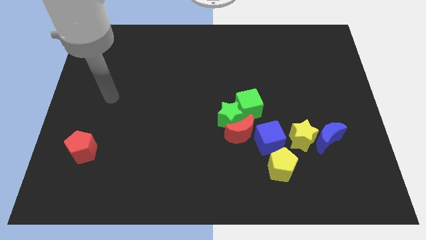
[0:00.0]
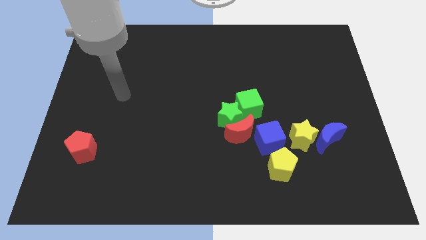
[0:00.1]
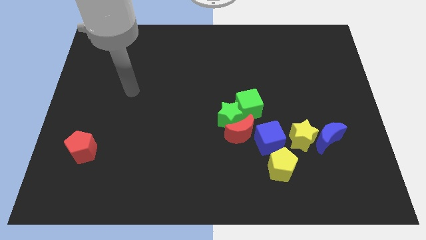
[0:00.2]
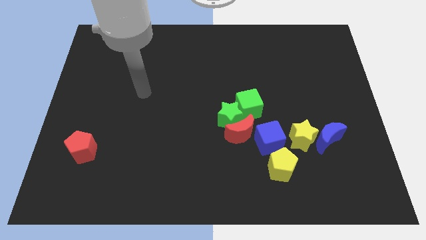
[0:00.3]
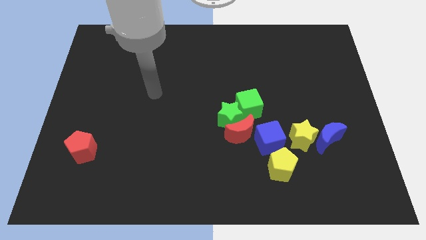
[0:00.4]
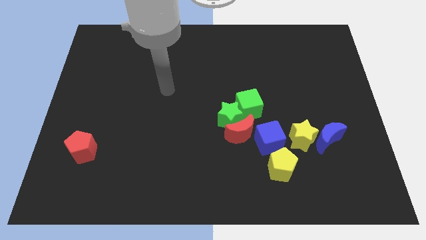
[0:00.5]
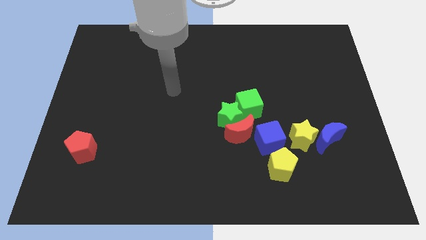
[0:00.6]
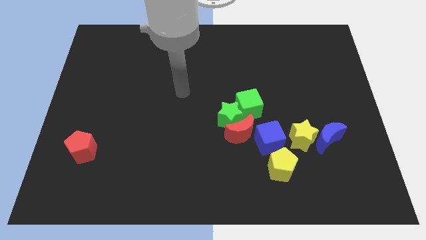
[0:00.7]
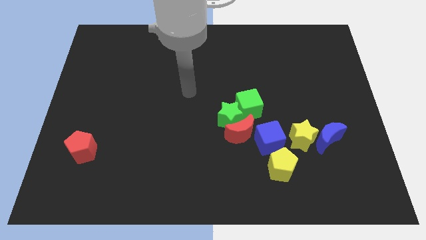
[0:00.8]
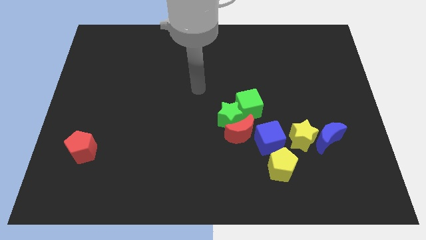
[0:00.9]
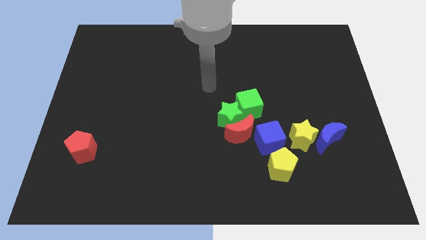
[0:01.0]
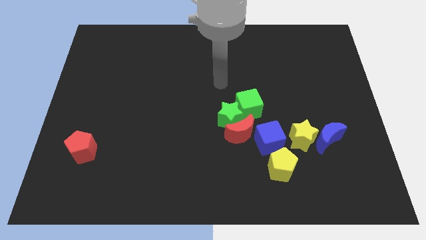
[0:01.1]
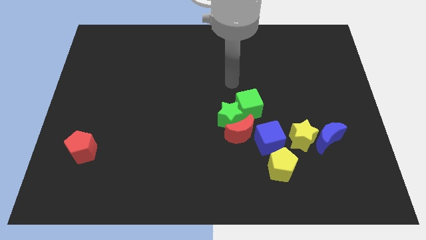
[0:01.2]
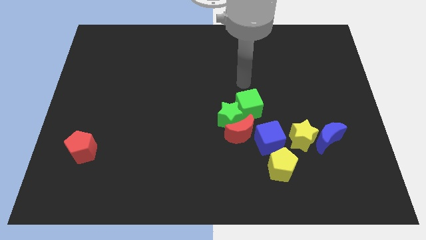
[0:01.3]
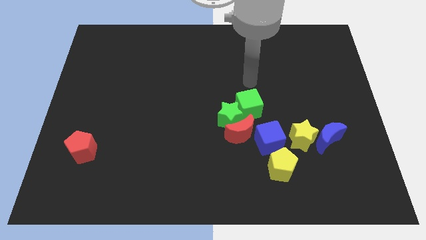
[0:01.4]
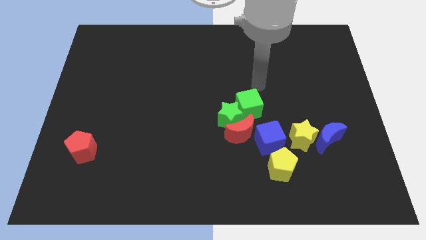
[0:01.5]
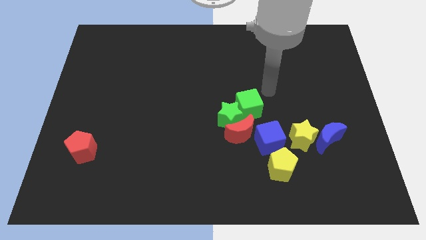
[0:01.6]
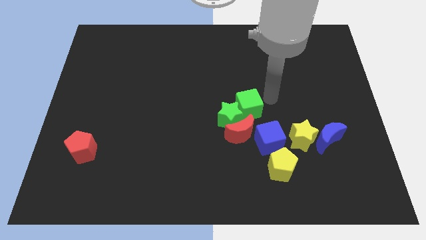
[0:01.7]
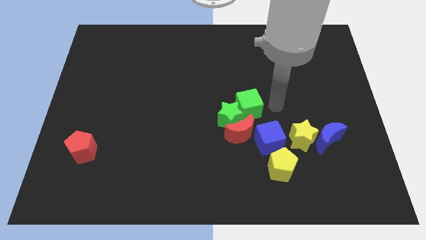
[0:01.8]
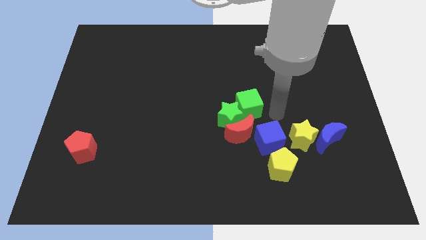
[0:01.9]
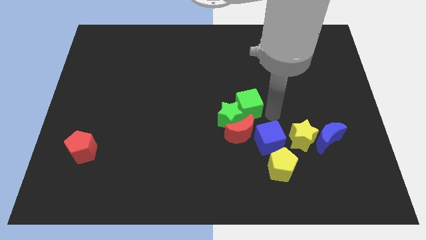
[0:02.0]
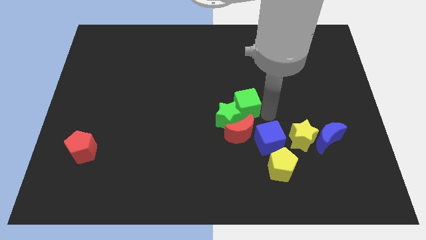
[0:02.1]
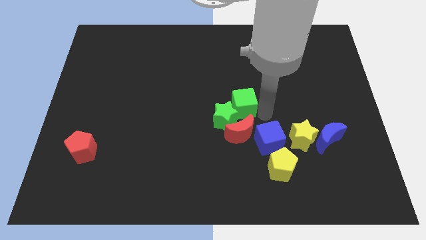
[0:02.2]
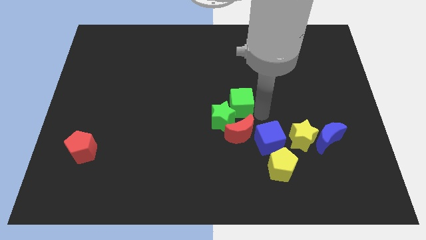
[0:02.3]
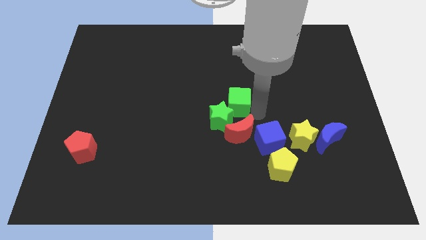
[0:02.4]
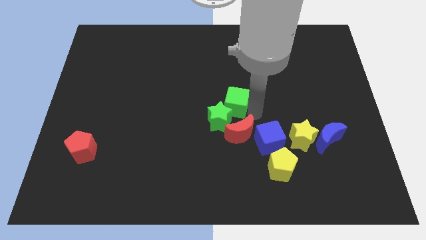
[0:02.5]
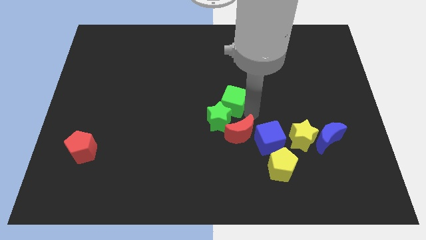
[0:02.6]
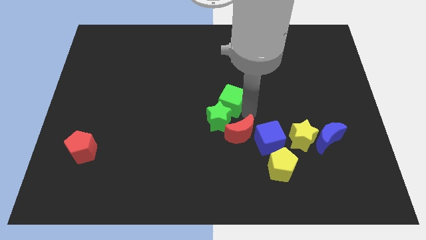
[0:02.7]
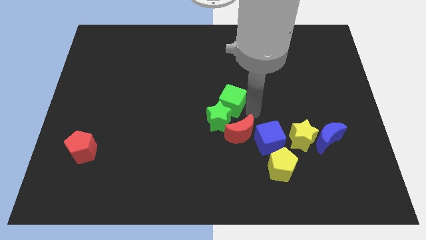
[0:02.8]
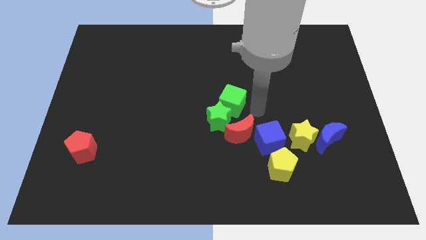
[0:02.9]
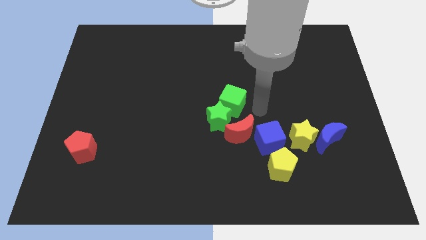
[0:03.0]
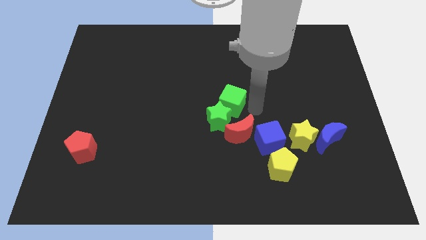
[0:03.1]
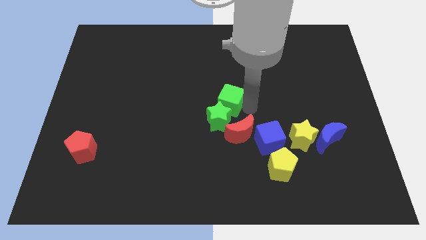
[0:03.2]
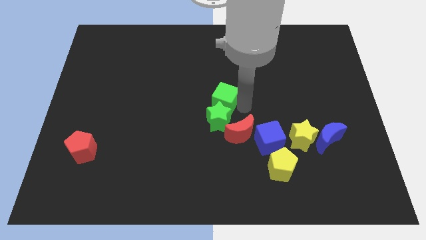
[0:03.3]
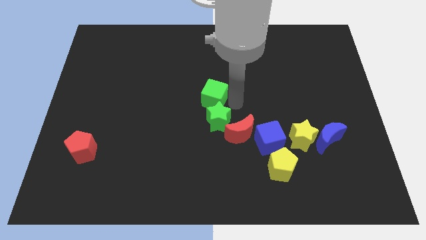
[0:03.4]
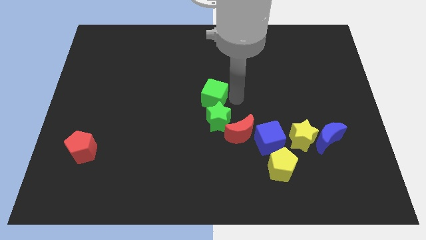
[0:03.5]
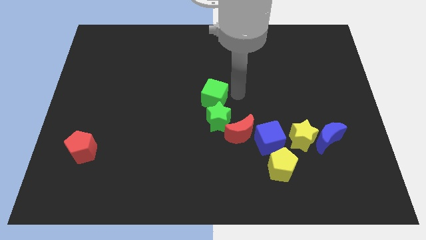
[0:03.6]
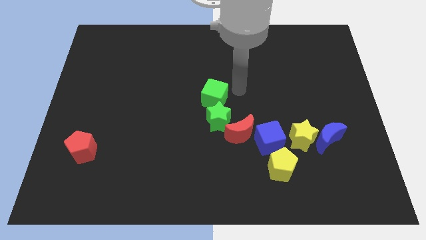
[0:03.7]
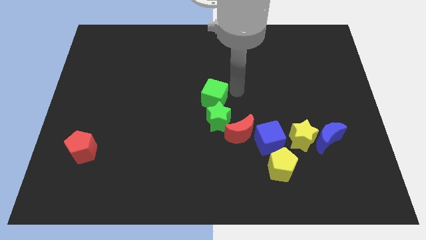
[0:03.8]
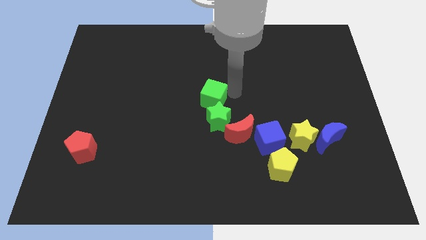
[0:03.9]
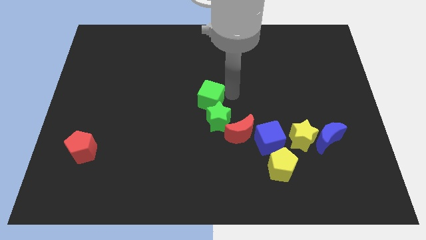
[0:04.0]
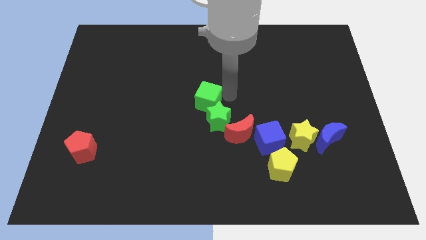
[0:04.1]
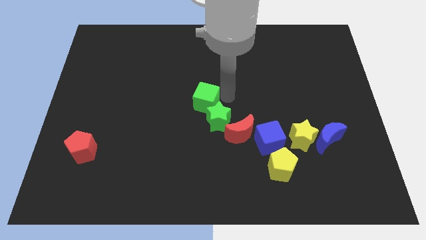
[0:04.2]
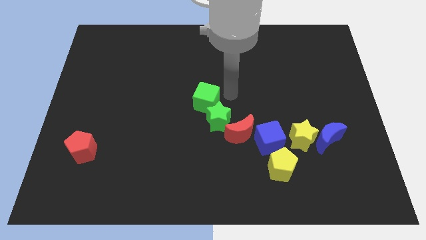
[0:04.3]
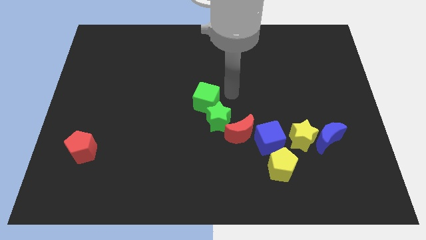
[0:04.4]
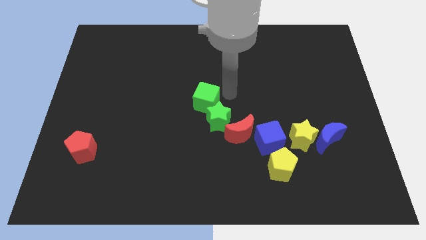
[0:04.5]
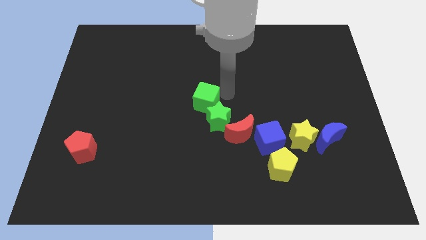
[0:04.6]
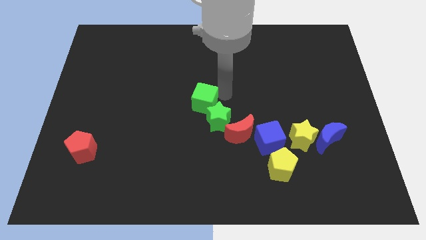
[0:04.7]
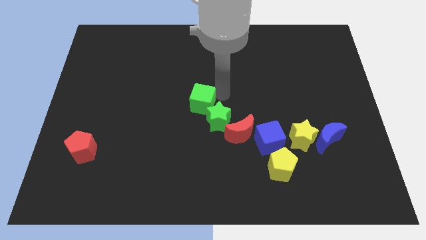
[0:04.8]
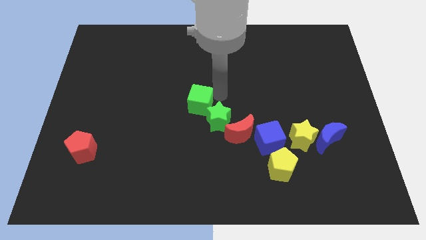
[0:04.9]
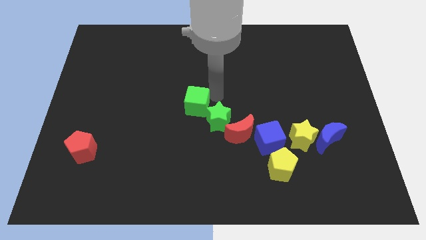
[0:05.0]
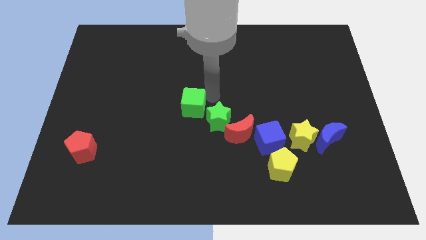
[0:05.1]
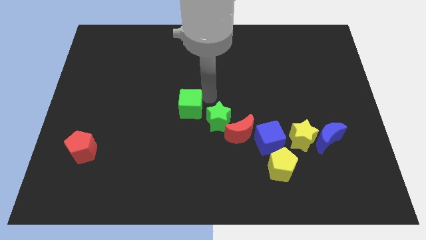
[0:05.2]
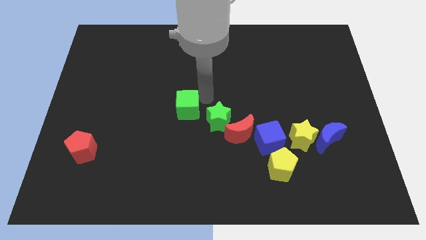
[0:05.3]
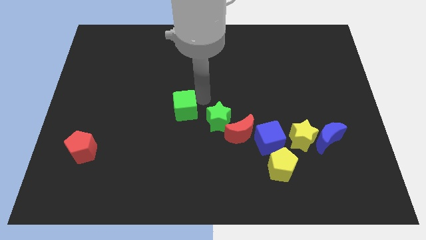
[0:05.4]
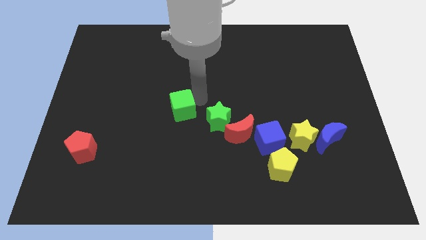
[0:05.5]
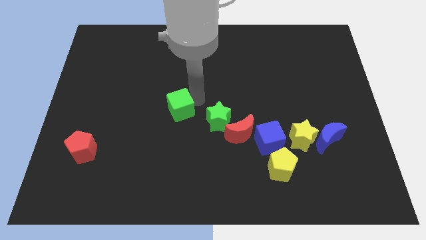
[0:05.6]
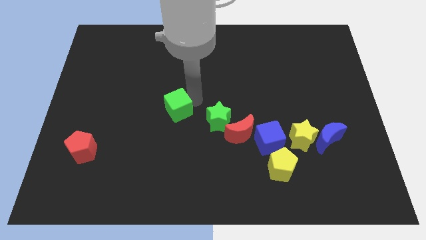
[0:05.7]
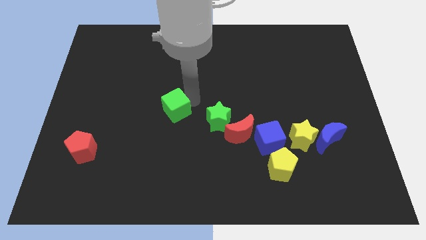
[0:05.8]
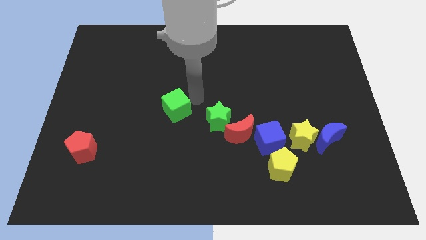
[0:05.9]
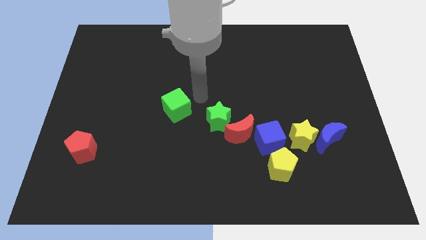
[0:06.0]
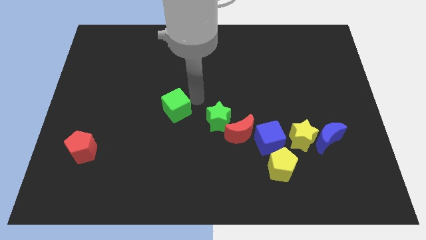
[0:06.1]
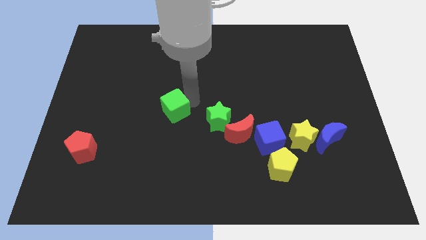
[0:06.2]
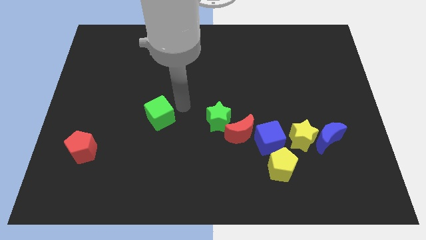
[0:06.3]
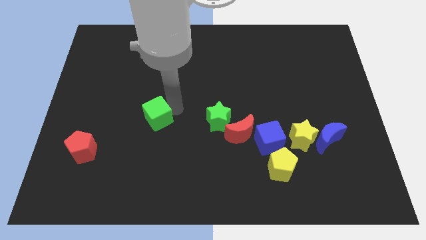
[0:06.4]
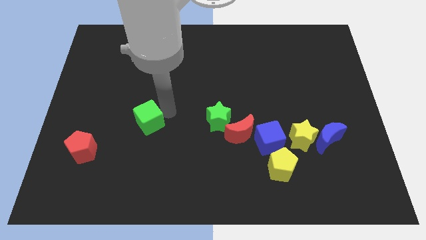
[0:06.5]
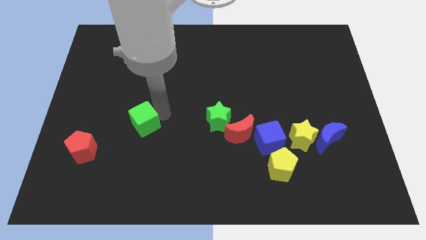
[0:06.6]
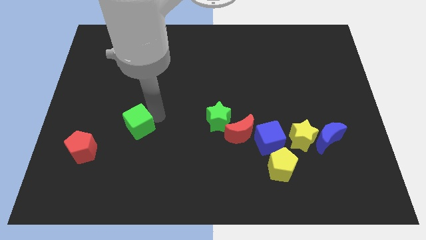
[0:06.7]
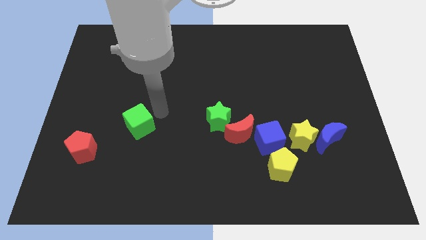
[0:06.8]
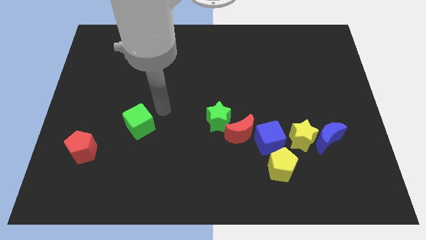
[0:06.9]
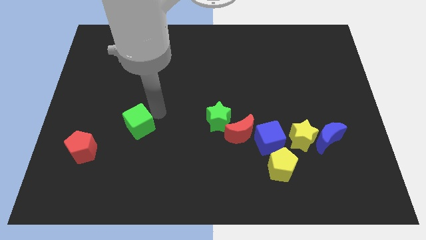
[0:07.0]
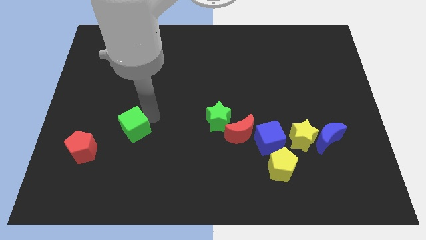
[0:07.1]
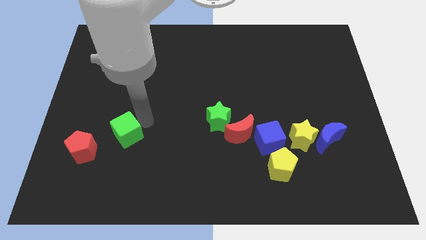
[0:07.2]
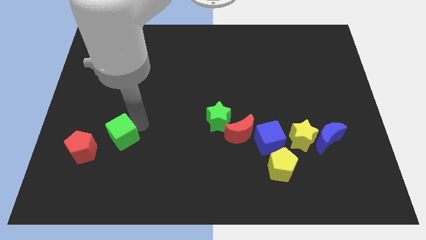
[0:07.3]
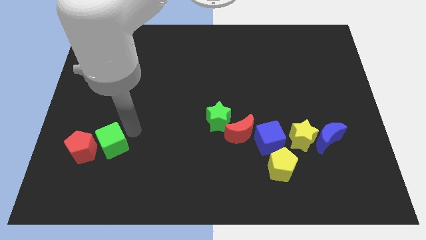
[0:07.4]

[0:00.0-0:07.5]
put the green cube close to the red pentagon
